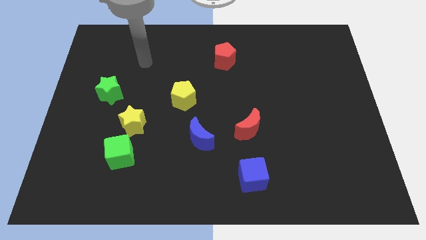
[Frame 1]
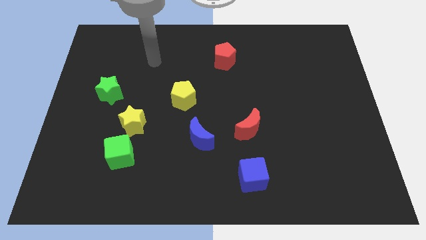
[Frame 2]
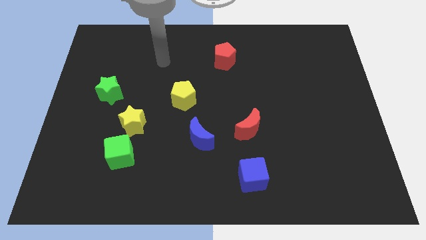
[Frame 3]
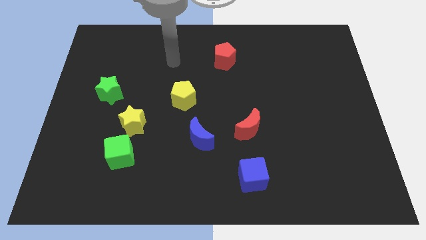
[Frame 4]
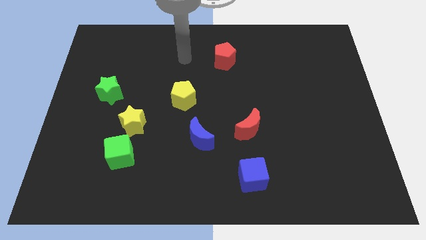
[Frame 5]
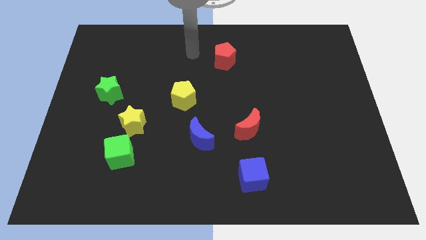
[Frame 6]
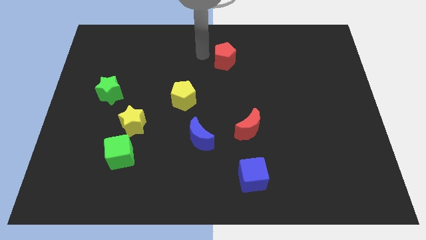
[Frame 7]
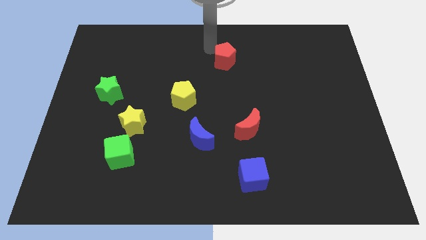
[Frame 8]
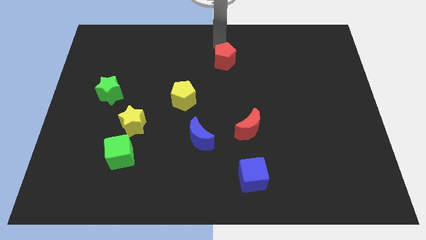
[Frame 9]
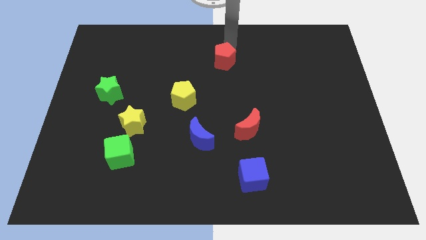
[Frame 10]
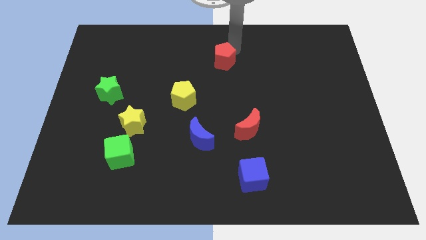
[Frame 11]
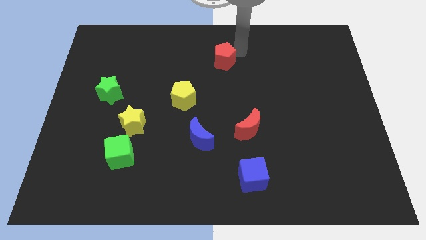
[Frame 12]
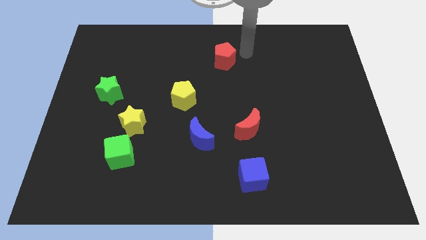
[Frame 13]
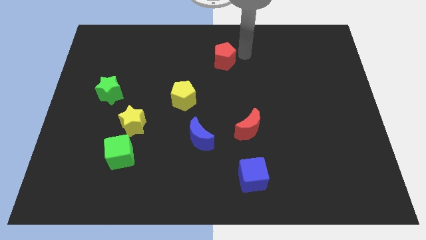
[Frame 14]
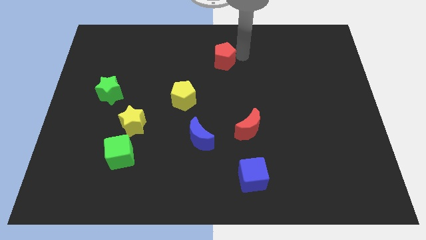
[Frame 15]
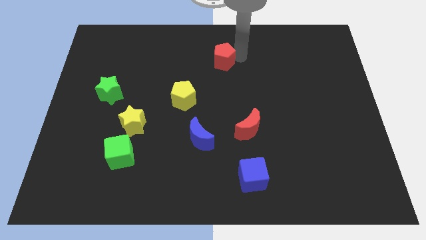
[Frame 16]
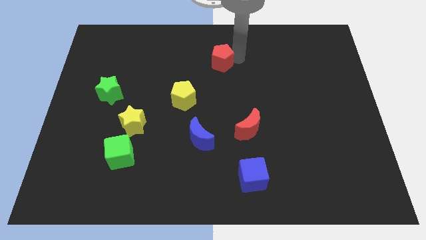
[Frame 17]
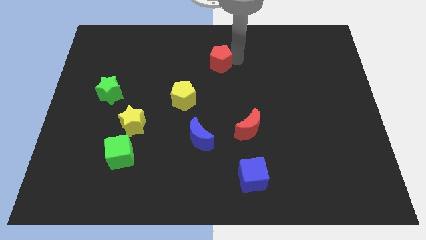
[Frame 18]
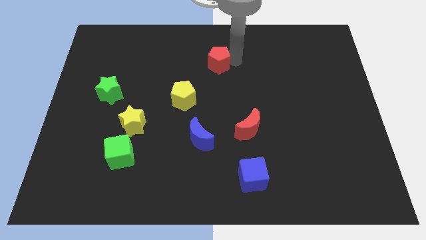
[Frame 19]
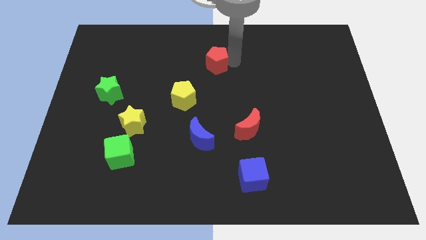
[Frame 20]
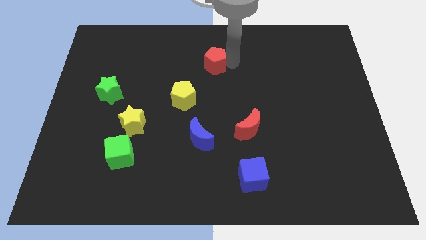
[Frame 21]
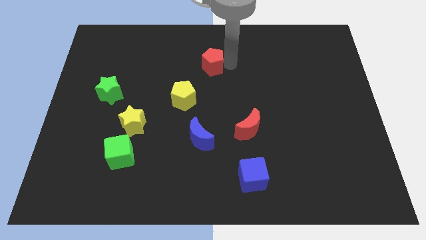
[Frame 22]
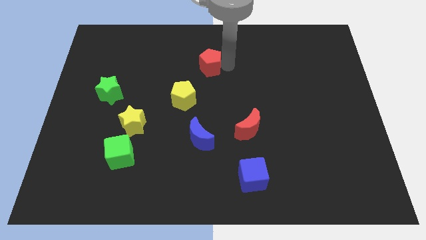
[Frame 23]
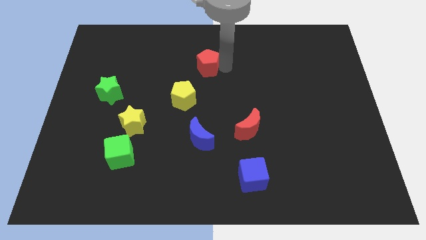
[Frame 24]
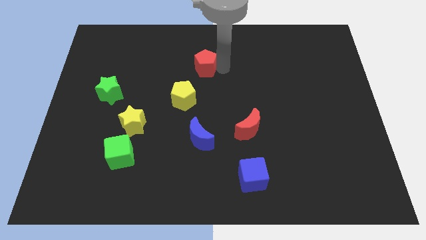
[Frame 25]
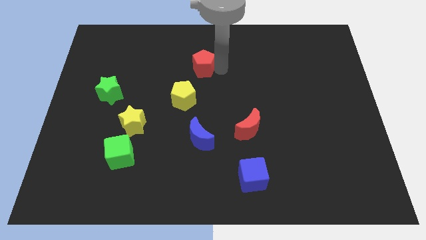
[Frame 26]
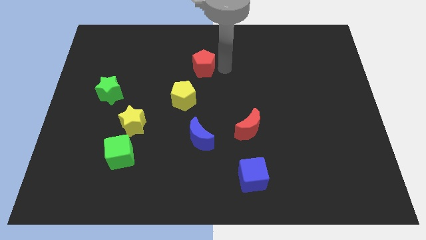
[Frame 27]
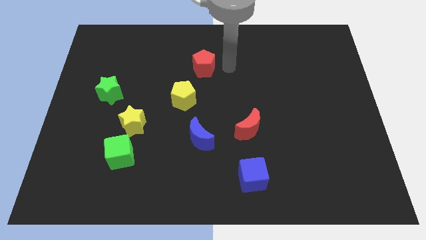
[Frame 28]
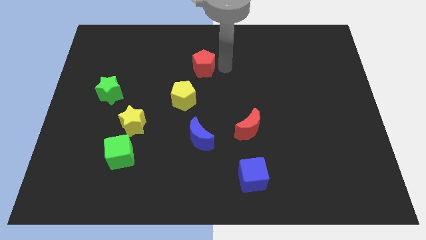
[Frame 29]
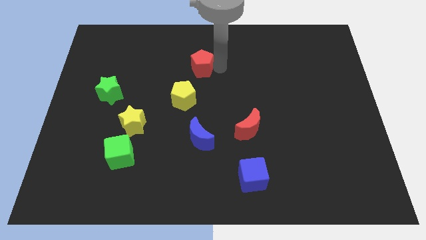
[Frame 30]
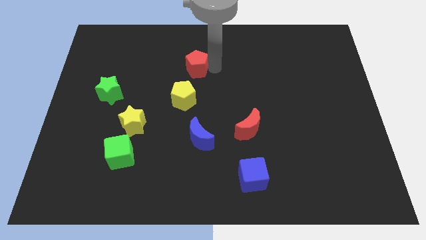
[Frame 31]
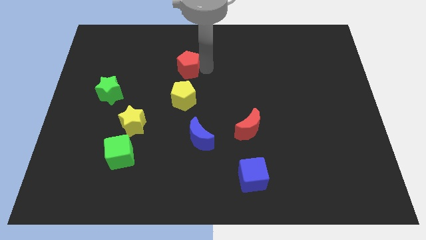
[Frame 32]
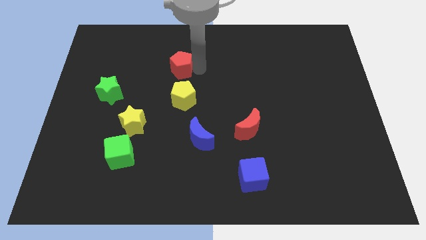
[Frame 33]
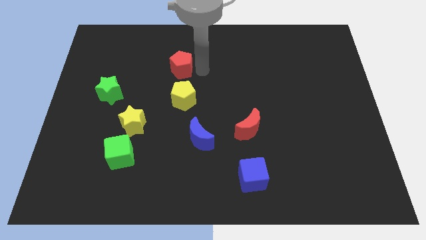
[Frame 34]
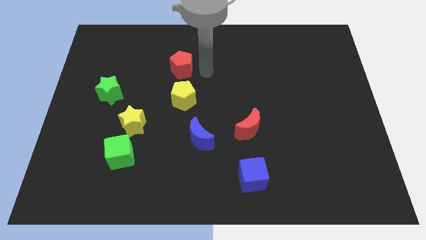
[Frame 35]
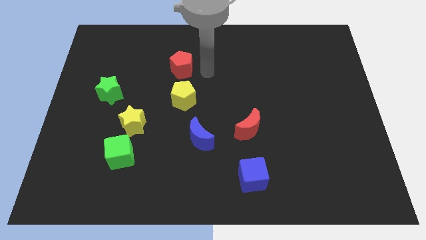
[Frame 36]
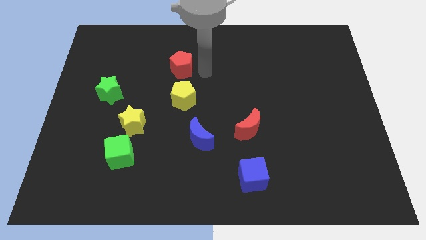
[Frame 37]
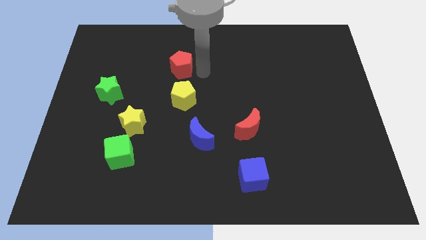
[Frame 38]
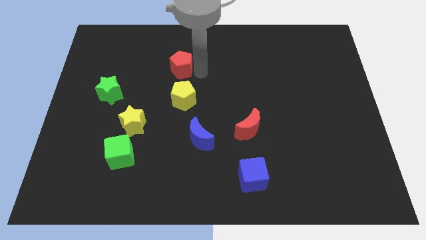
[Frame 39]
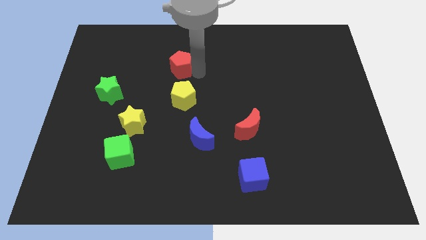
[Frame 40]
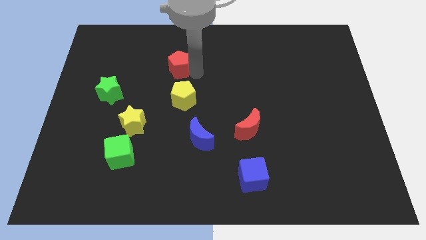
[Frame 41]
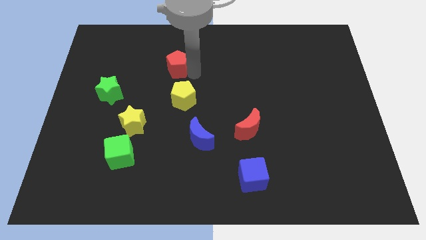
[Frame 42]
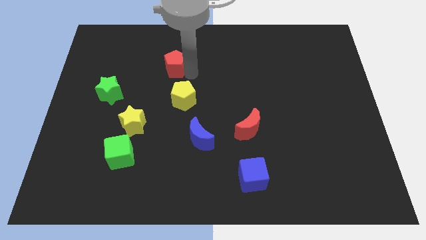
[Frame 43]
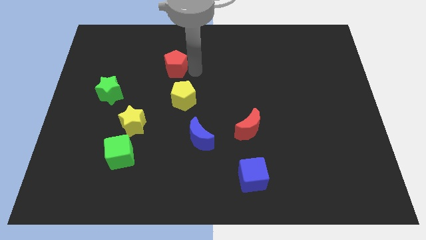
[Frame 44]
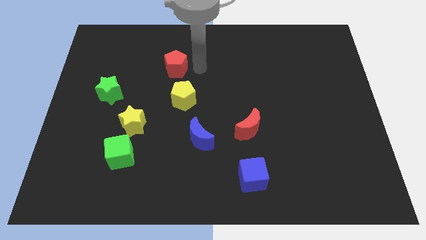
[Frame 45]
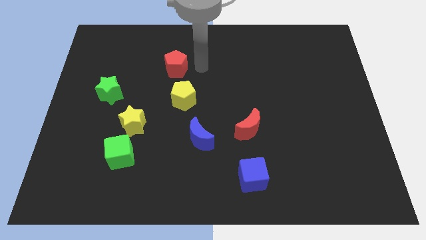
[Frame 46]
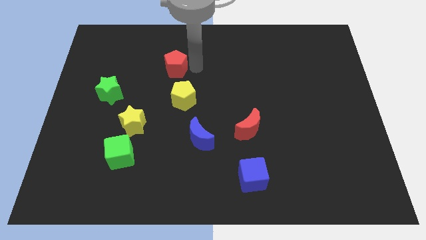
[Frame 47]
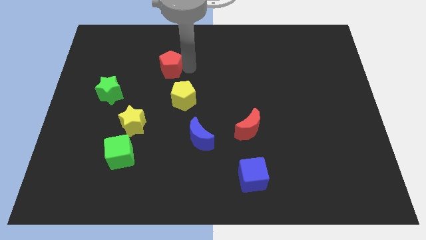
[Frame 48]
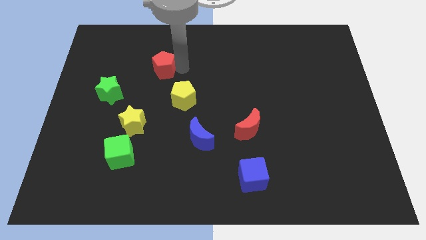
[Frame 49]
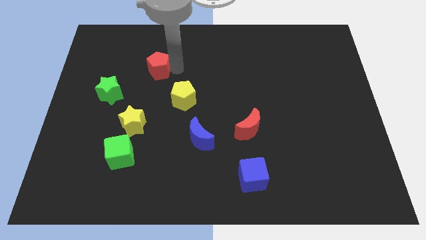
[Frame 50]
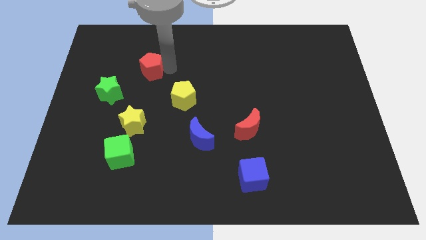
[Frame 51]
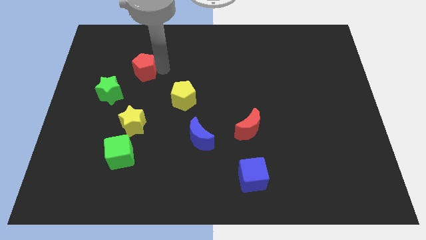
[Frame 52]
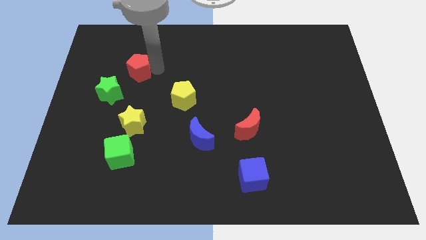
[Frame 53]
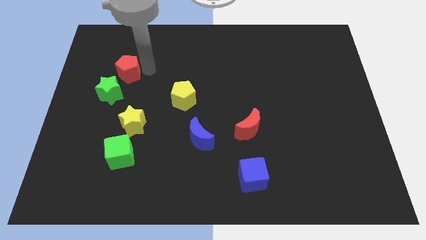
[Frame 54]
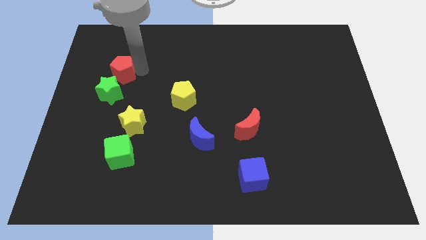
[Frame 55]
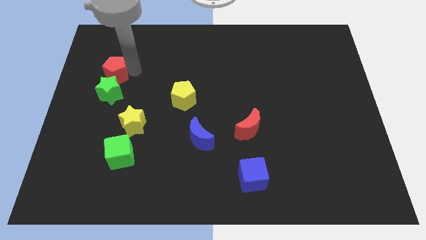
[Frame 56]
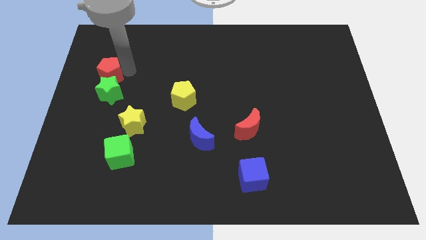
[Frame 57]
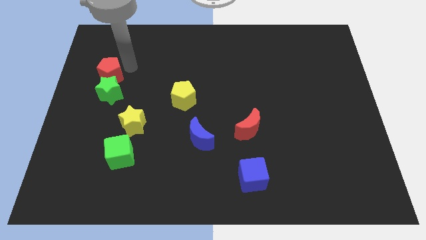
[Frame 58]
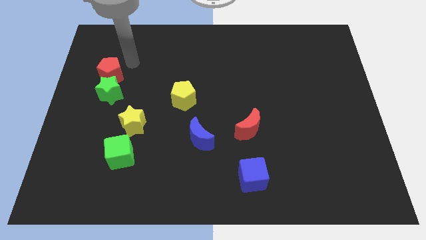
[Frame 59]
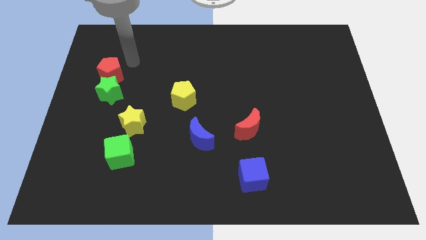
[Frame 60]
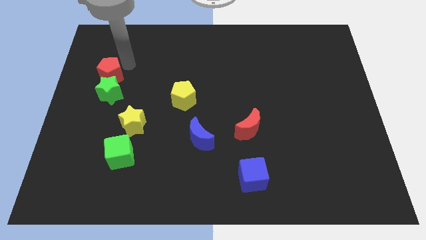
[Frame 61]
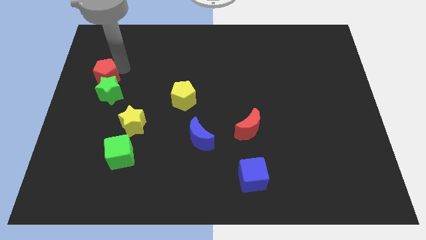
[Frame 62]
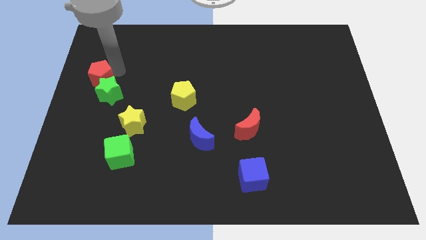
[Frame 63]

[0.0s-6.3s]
push the red pentagon to the left side of the board
